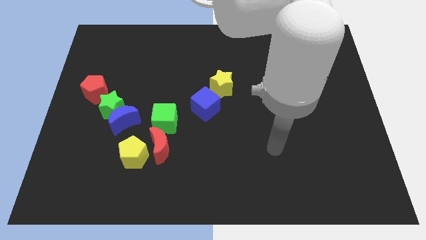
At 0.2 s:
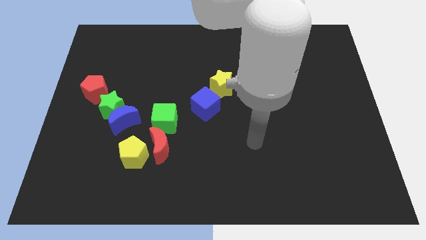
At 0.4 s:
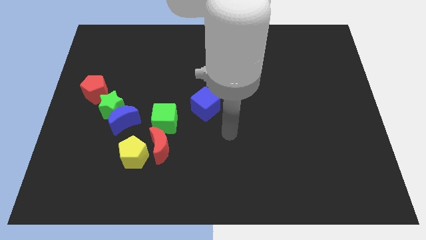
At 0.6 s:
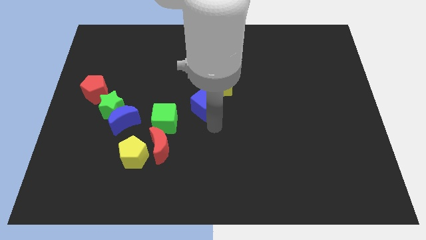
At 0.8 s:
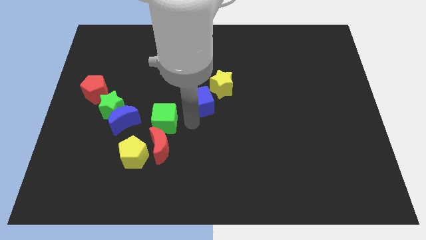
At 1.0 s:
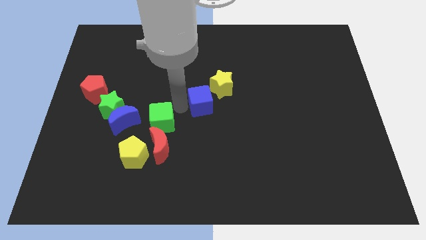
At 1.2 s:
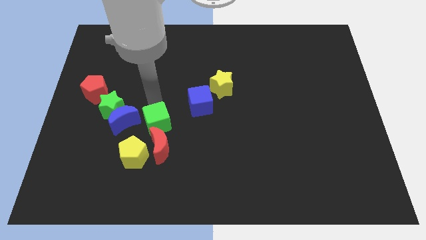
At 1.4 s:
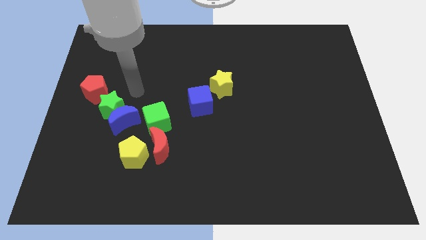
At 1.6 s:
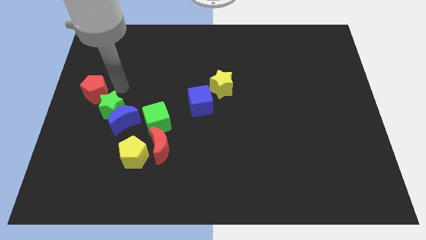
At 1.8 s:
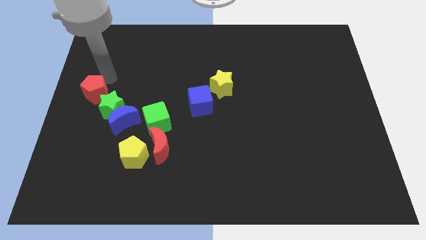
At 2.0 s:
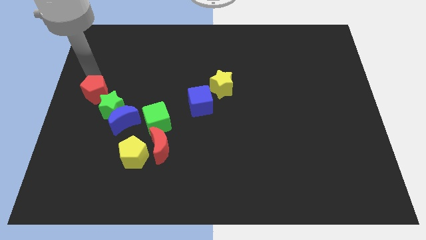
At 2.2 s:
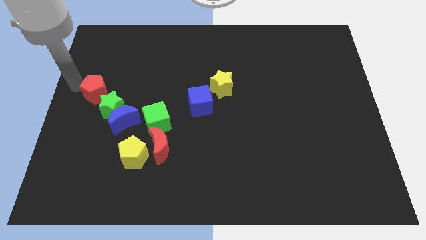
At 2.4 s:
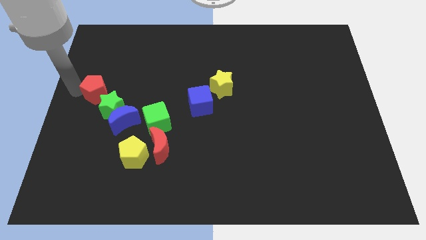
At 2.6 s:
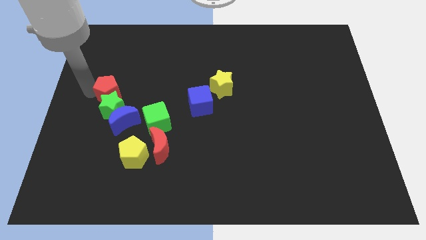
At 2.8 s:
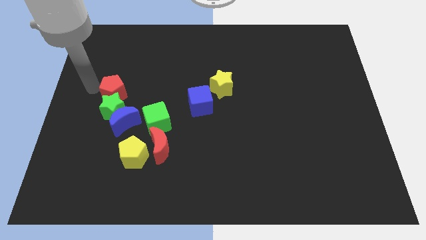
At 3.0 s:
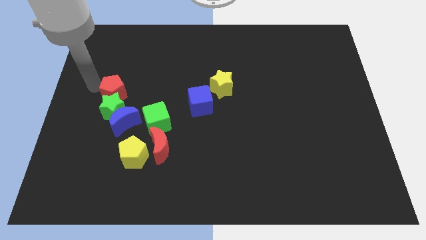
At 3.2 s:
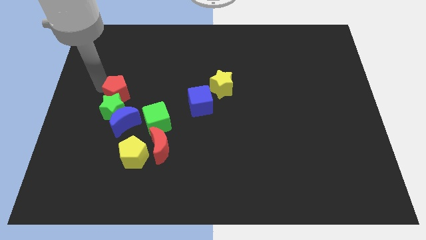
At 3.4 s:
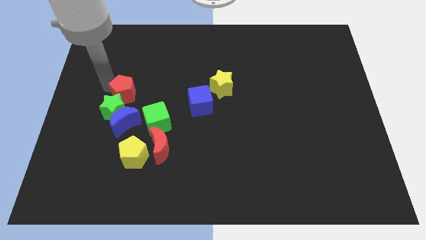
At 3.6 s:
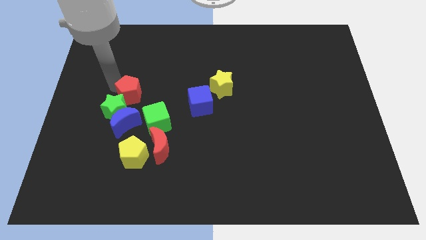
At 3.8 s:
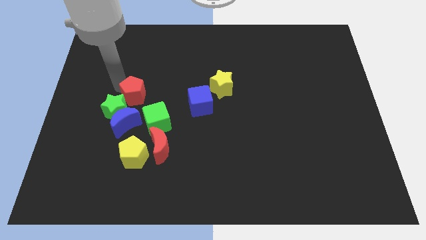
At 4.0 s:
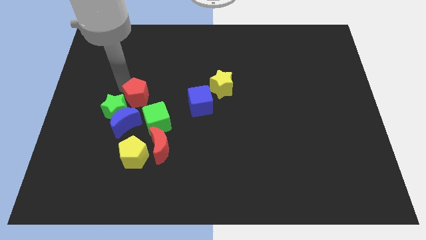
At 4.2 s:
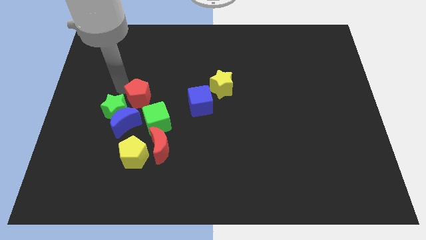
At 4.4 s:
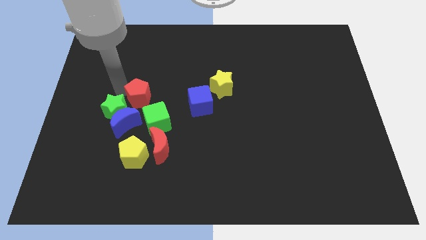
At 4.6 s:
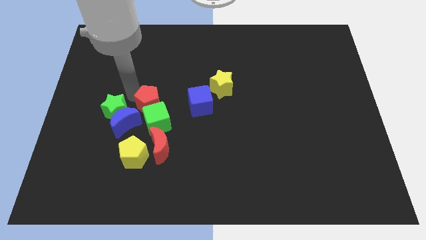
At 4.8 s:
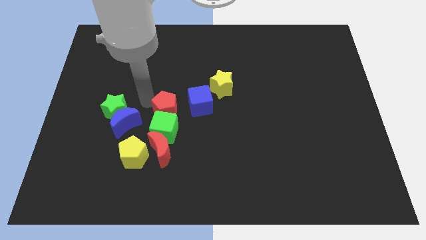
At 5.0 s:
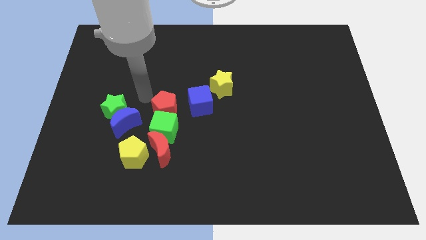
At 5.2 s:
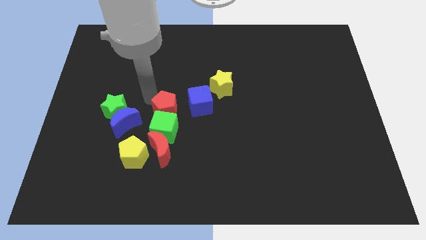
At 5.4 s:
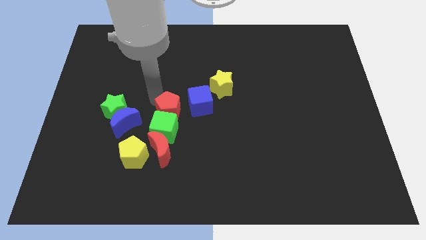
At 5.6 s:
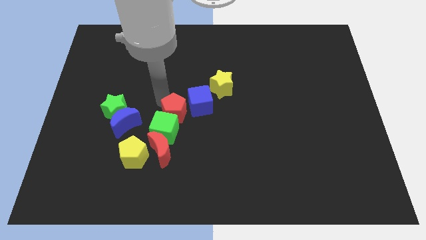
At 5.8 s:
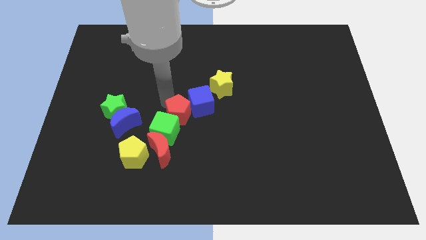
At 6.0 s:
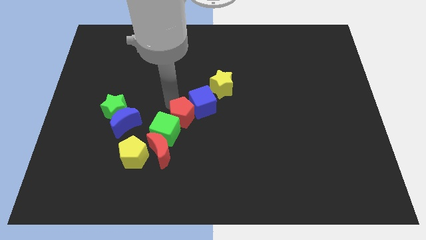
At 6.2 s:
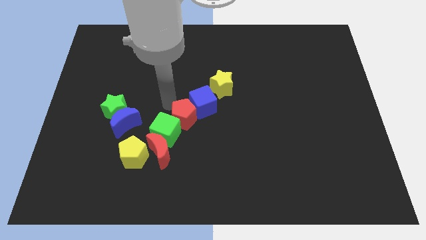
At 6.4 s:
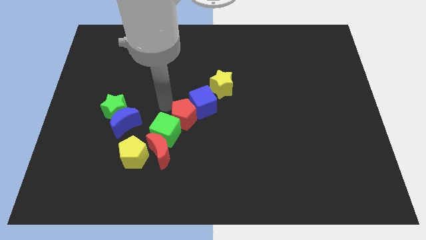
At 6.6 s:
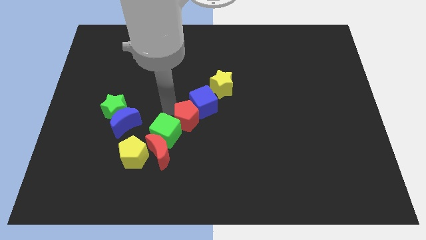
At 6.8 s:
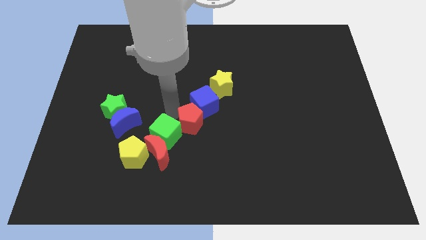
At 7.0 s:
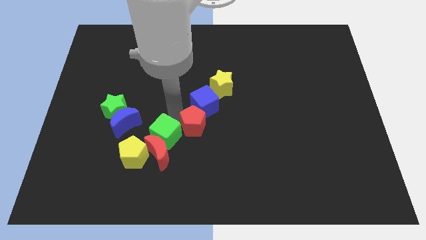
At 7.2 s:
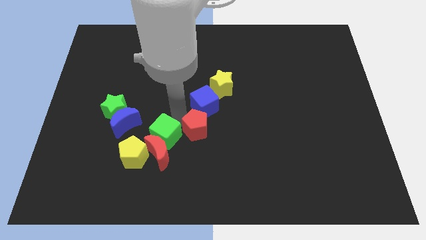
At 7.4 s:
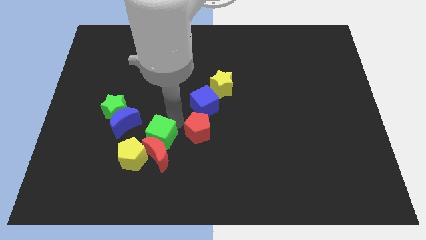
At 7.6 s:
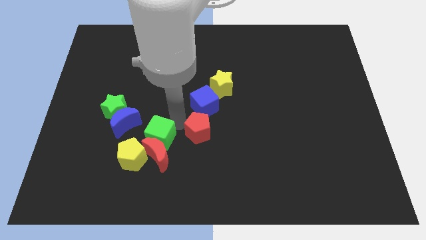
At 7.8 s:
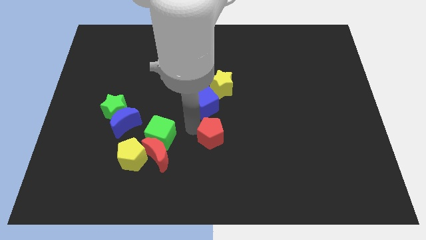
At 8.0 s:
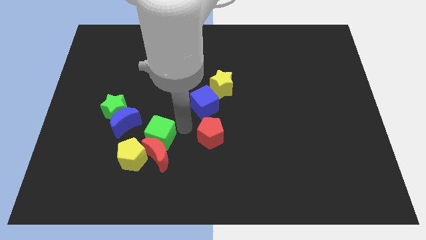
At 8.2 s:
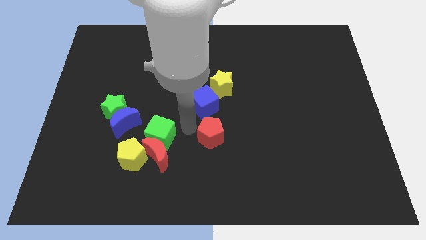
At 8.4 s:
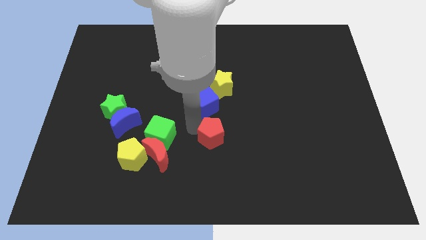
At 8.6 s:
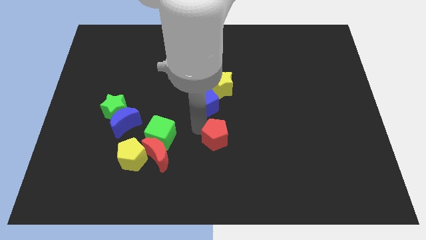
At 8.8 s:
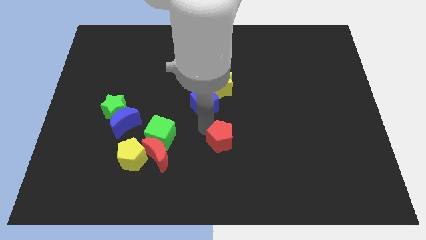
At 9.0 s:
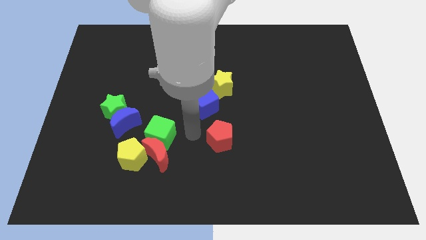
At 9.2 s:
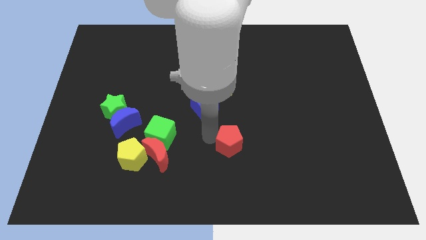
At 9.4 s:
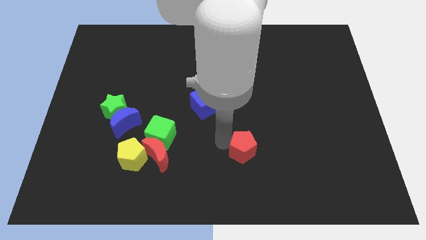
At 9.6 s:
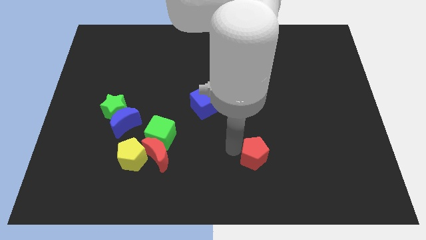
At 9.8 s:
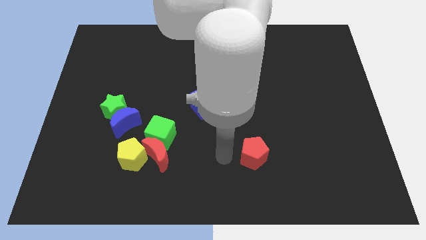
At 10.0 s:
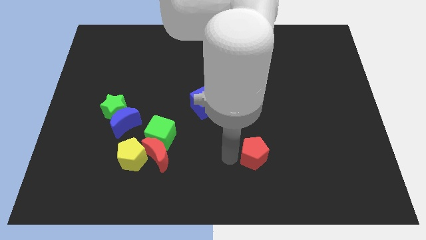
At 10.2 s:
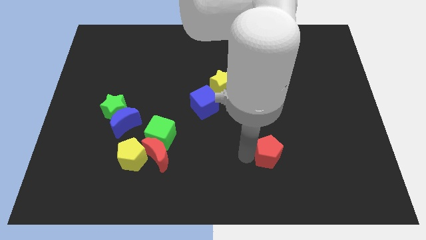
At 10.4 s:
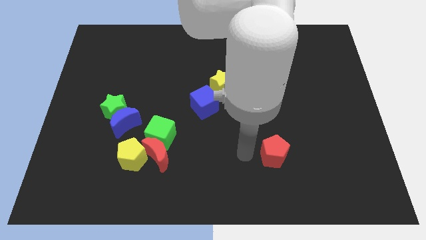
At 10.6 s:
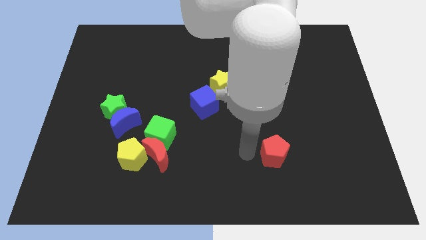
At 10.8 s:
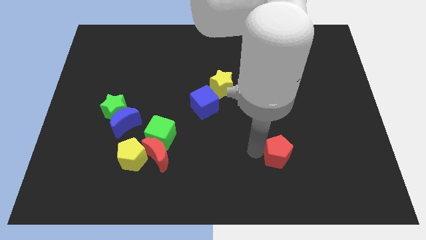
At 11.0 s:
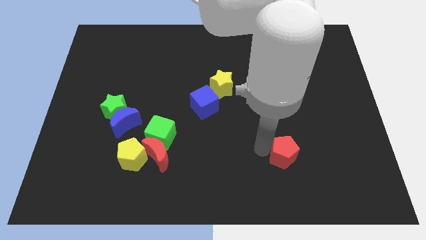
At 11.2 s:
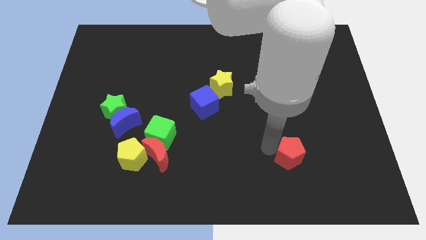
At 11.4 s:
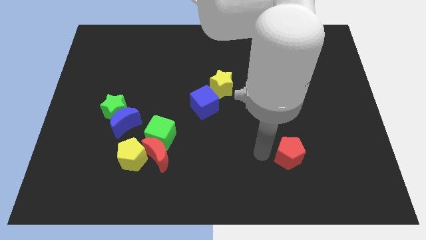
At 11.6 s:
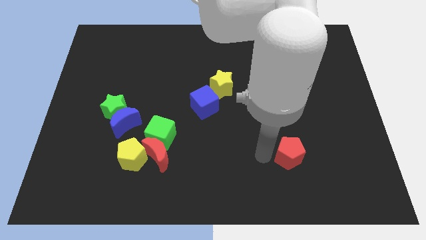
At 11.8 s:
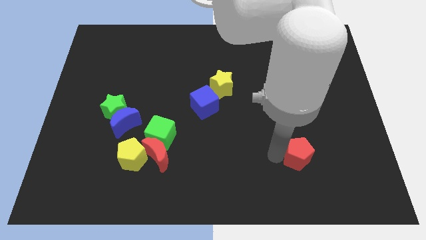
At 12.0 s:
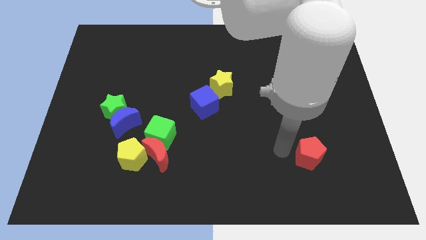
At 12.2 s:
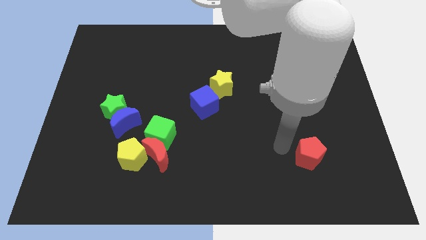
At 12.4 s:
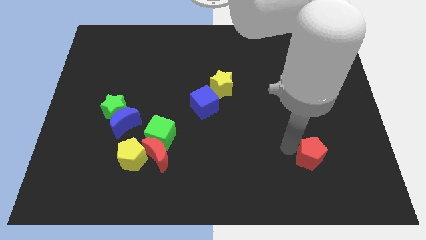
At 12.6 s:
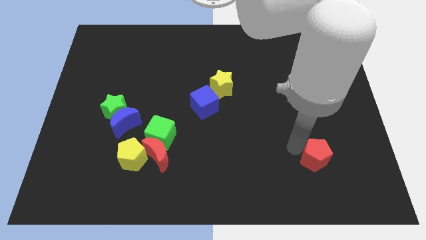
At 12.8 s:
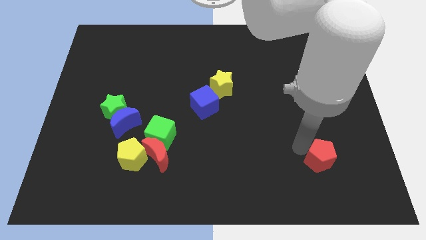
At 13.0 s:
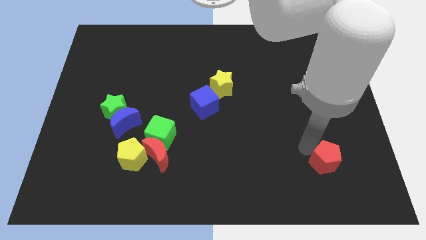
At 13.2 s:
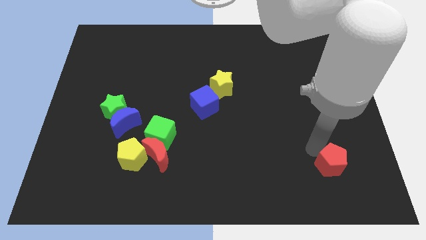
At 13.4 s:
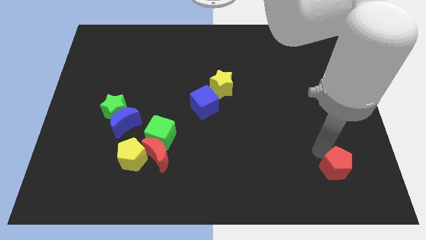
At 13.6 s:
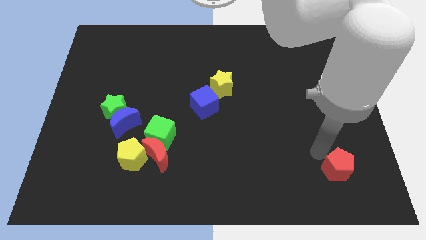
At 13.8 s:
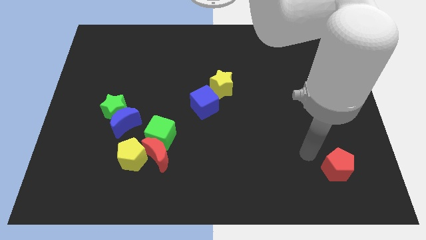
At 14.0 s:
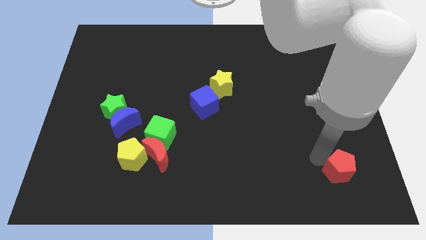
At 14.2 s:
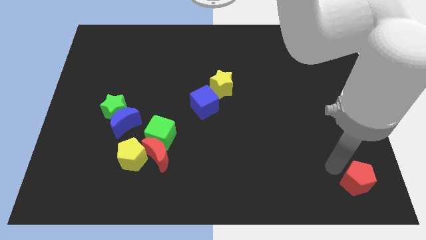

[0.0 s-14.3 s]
slide the red pentagon to the bottom right corner
